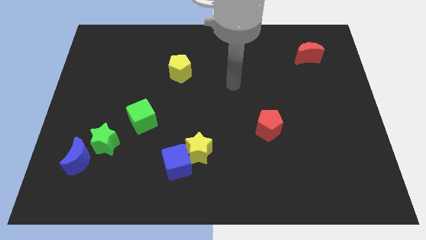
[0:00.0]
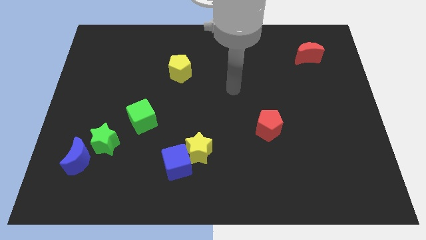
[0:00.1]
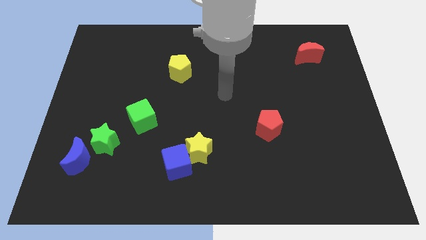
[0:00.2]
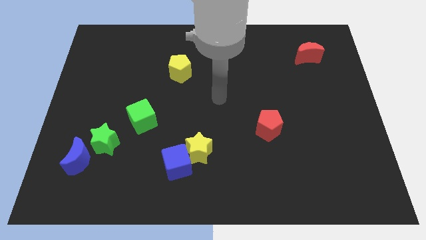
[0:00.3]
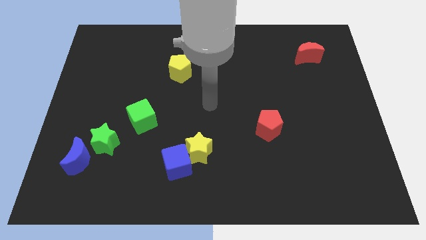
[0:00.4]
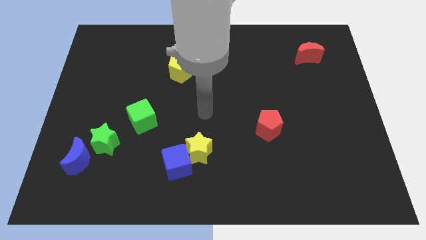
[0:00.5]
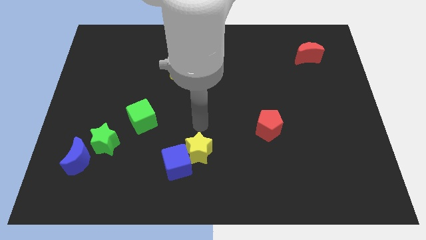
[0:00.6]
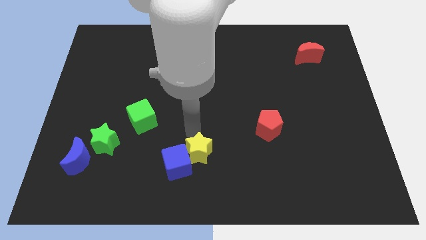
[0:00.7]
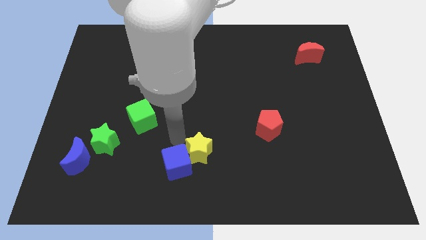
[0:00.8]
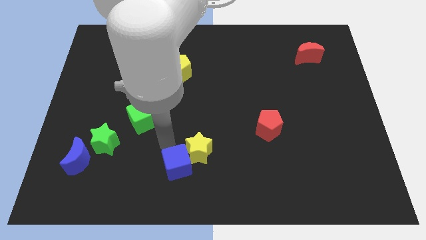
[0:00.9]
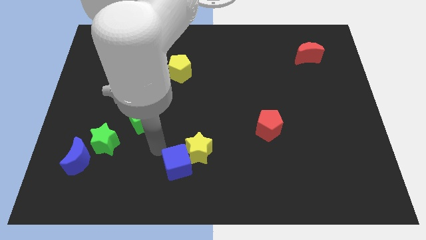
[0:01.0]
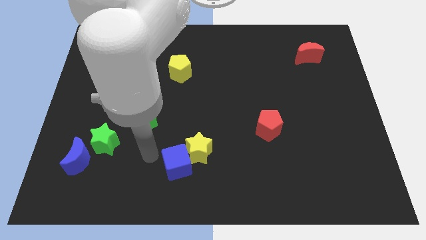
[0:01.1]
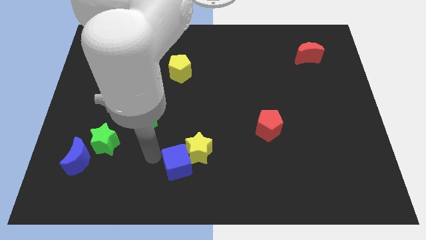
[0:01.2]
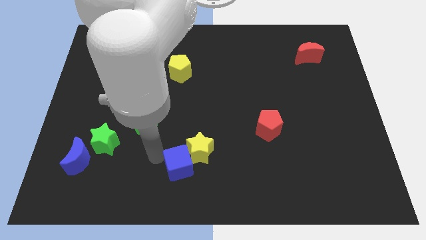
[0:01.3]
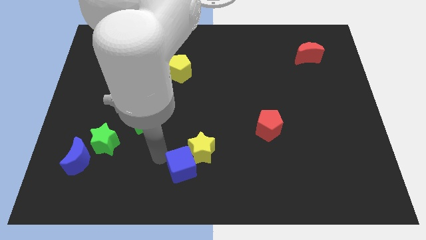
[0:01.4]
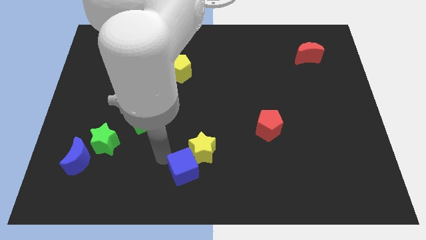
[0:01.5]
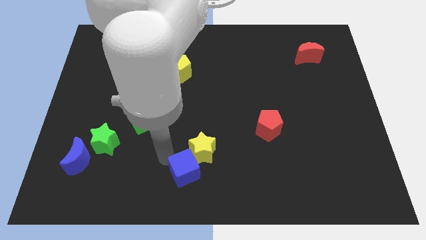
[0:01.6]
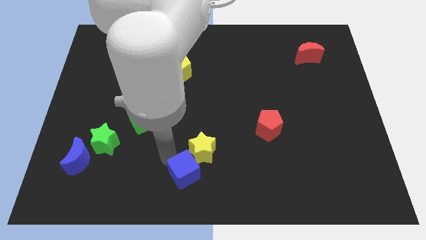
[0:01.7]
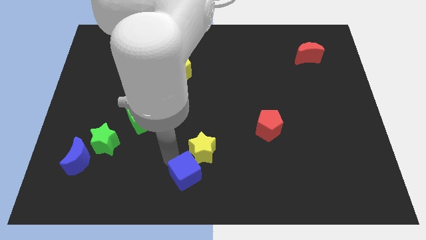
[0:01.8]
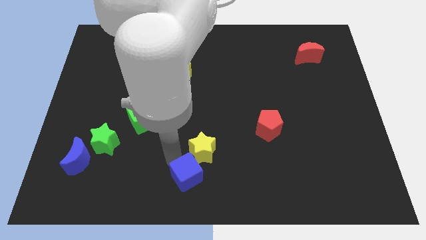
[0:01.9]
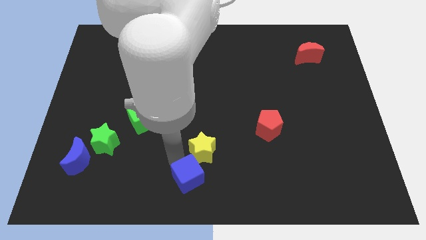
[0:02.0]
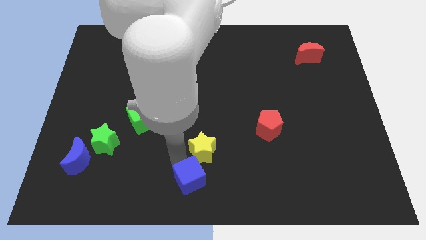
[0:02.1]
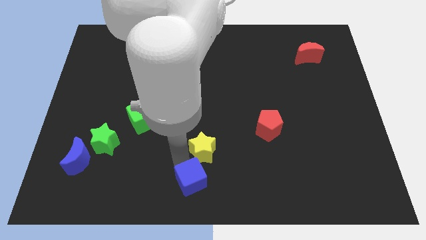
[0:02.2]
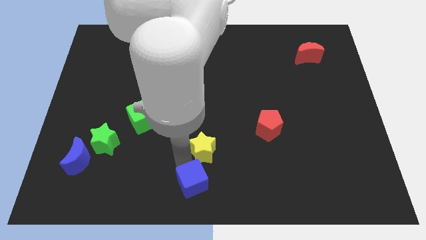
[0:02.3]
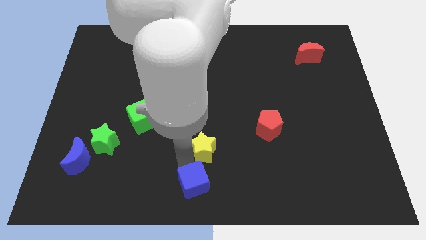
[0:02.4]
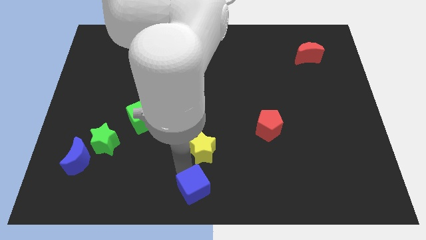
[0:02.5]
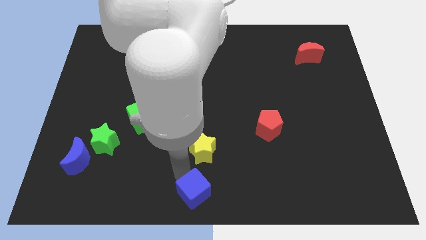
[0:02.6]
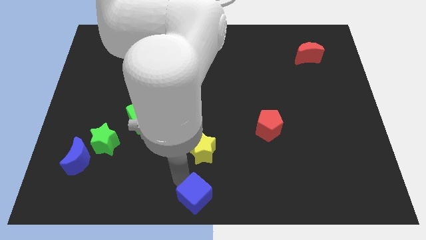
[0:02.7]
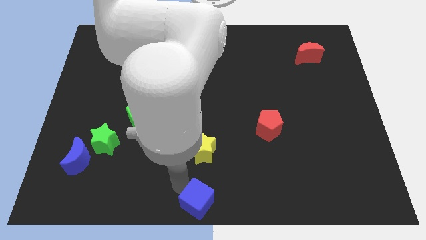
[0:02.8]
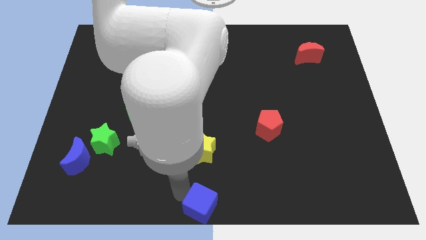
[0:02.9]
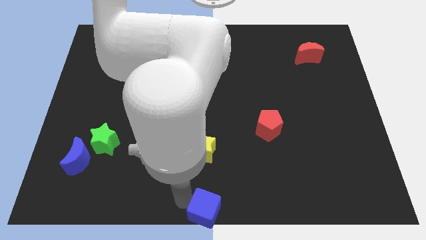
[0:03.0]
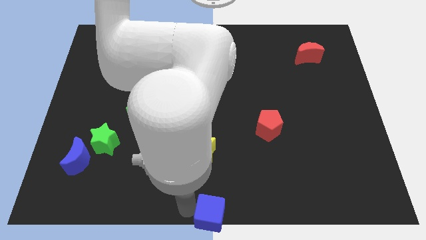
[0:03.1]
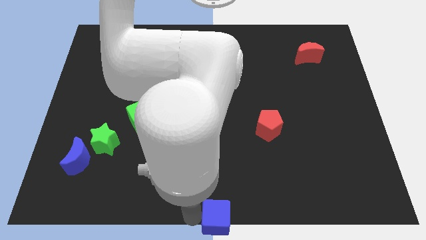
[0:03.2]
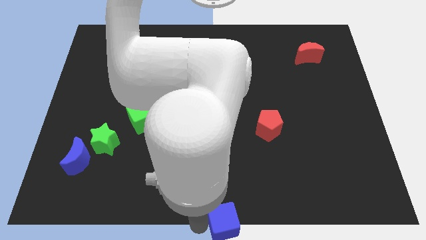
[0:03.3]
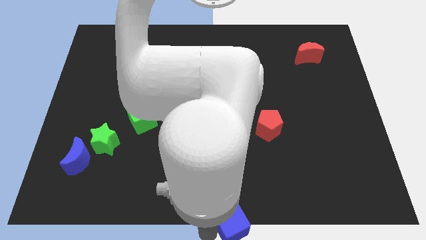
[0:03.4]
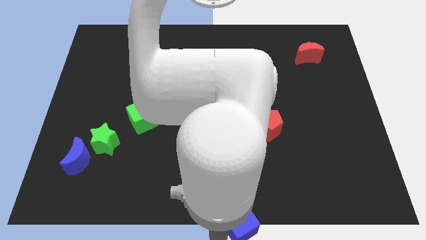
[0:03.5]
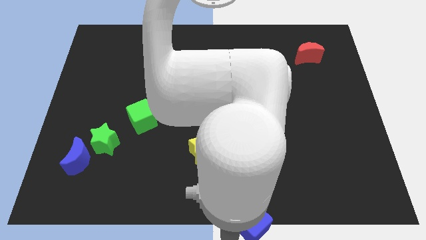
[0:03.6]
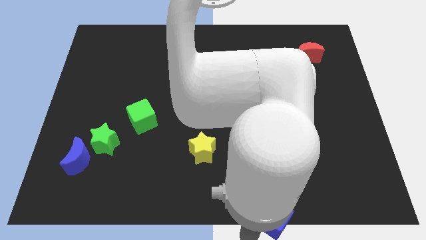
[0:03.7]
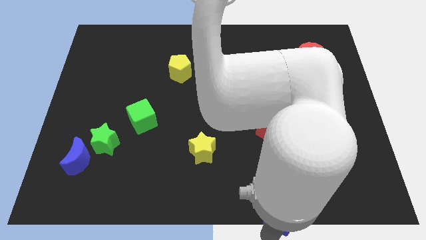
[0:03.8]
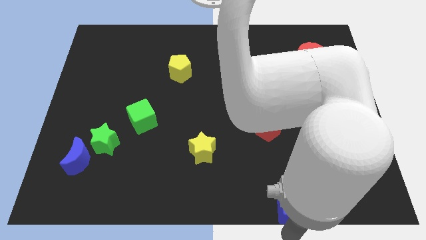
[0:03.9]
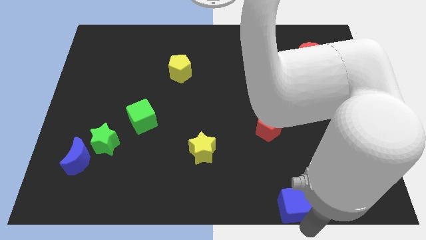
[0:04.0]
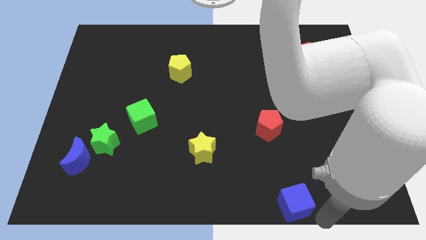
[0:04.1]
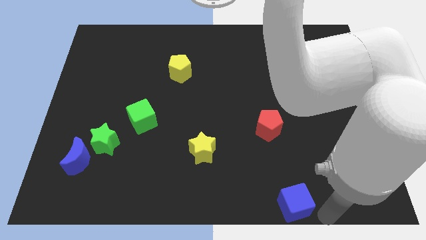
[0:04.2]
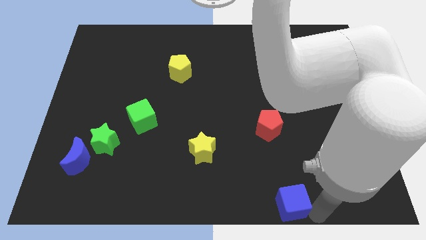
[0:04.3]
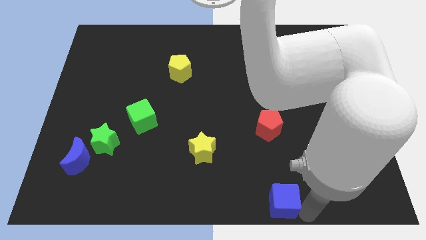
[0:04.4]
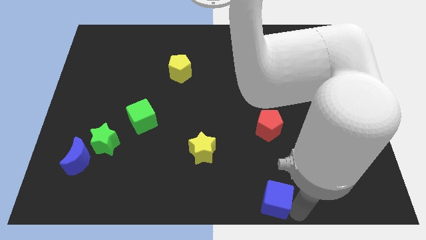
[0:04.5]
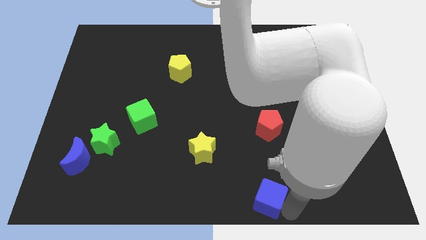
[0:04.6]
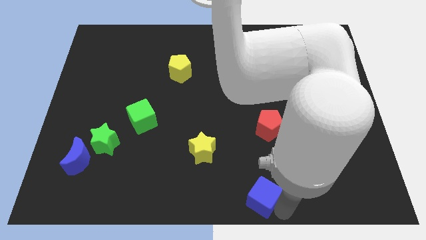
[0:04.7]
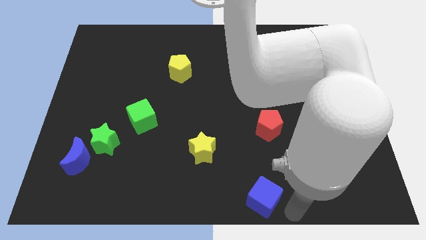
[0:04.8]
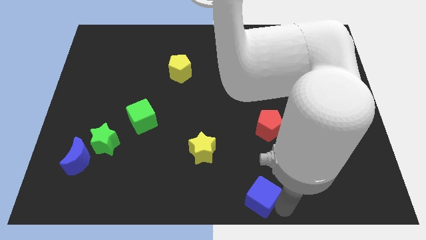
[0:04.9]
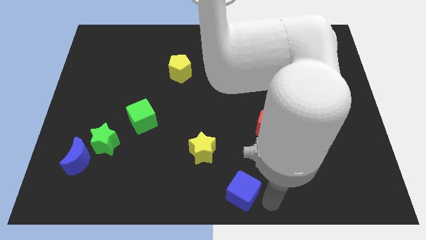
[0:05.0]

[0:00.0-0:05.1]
put the blue cube to the bottom right side of the yellow star

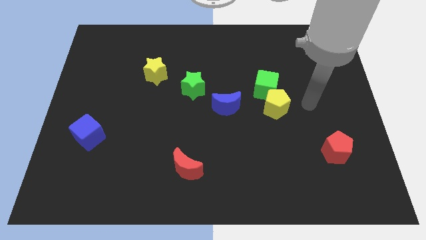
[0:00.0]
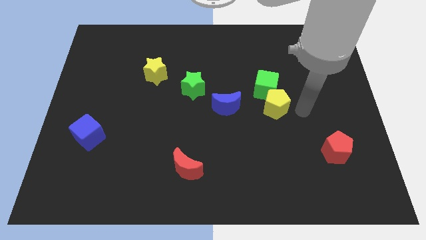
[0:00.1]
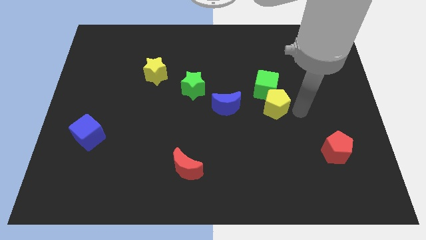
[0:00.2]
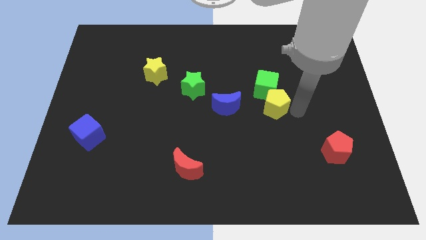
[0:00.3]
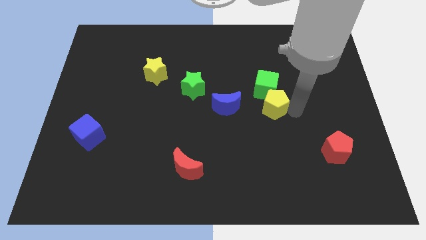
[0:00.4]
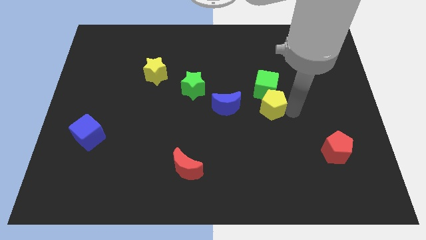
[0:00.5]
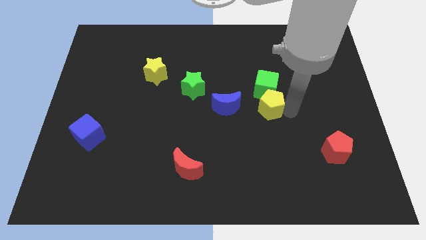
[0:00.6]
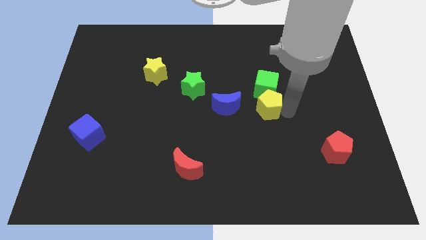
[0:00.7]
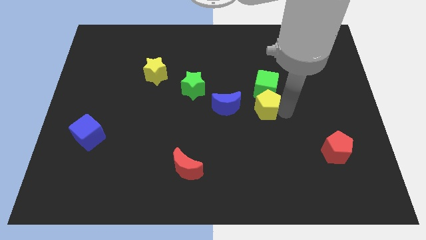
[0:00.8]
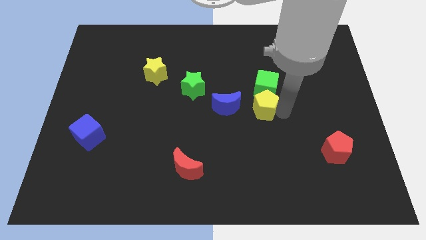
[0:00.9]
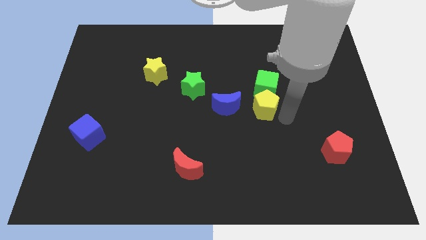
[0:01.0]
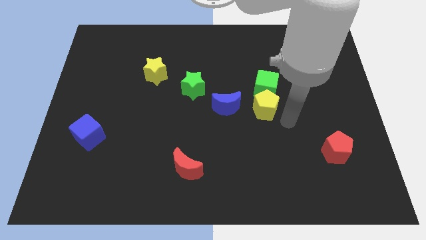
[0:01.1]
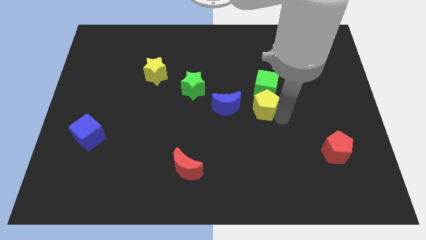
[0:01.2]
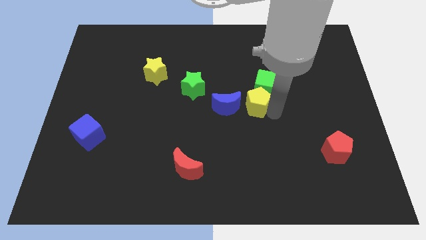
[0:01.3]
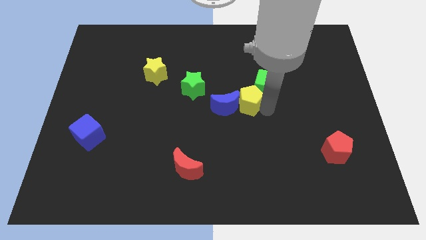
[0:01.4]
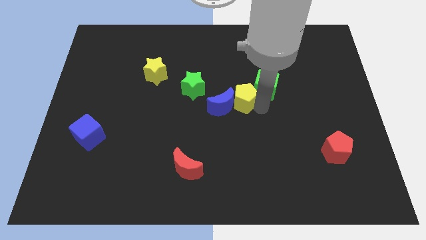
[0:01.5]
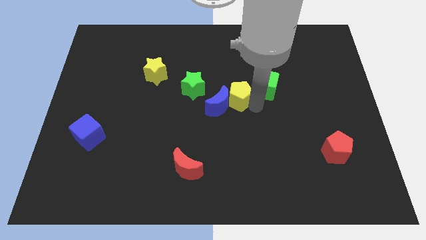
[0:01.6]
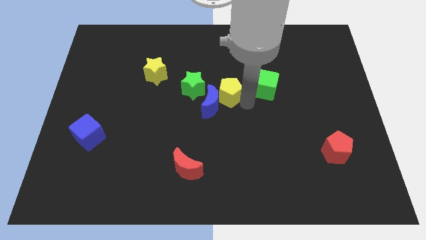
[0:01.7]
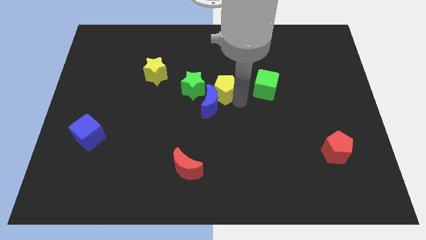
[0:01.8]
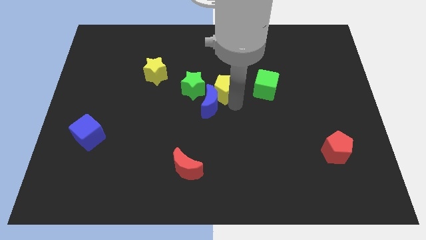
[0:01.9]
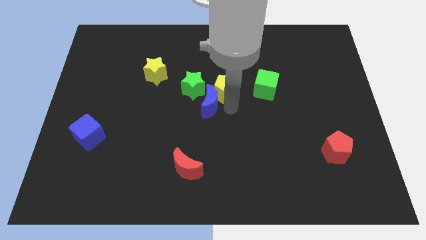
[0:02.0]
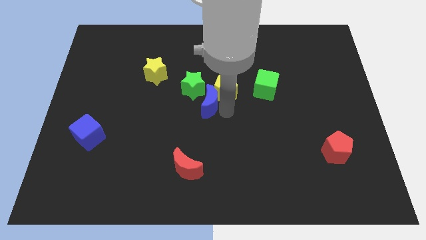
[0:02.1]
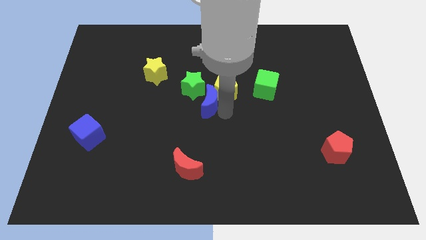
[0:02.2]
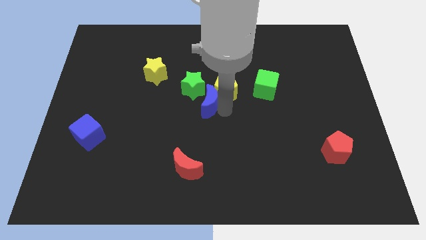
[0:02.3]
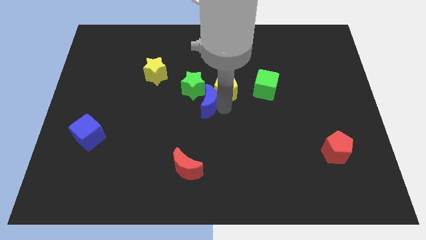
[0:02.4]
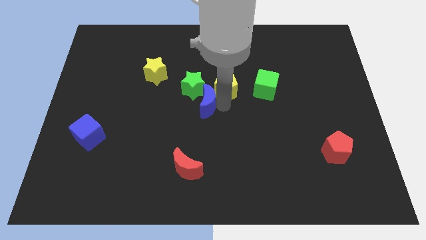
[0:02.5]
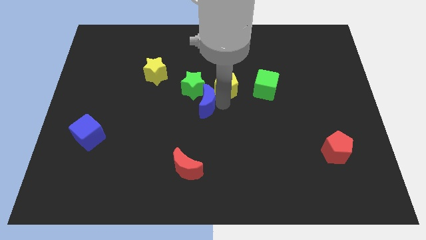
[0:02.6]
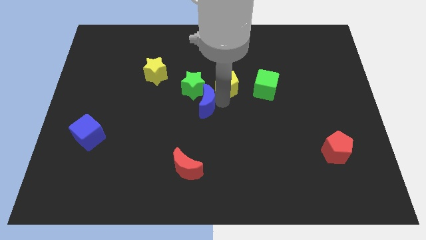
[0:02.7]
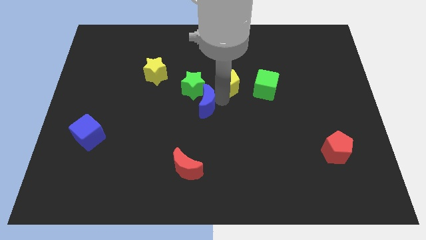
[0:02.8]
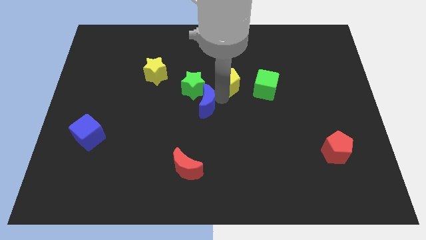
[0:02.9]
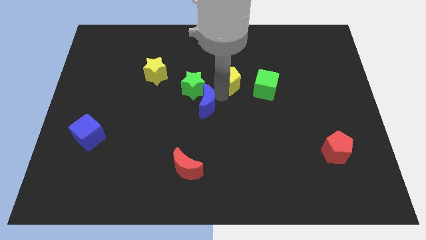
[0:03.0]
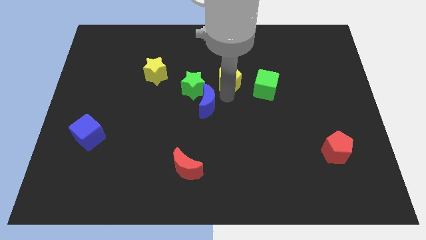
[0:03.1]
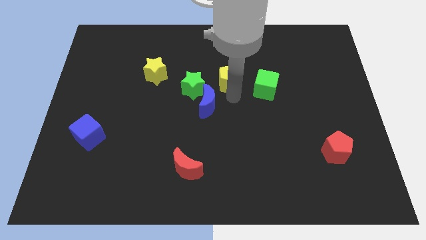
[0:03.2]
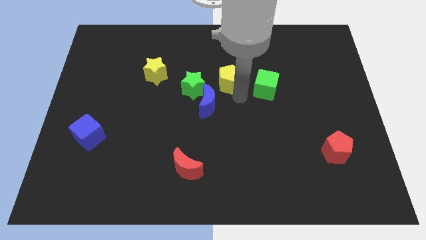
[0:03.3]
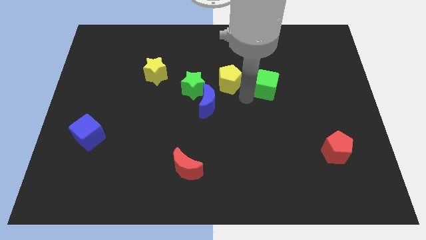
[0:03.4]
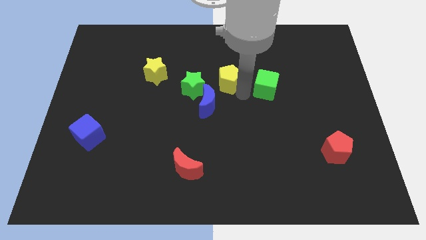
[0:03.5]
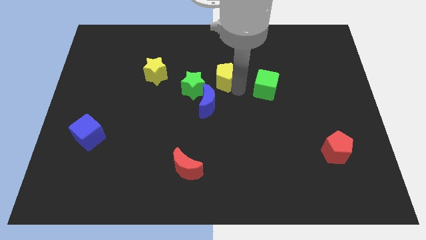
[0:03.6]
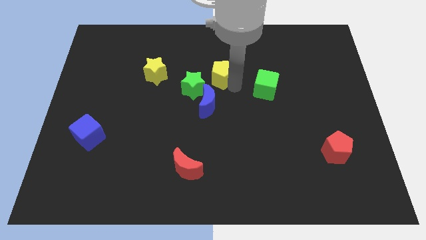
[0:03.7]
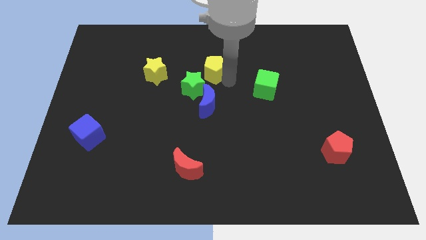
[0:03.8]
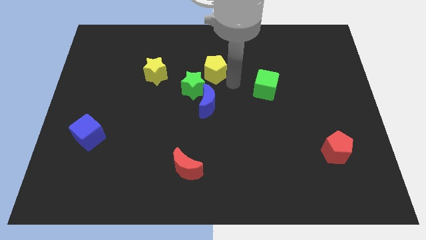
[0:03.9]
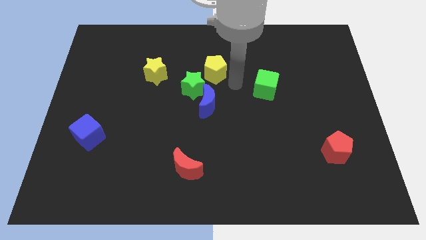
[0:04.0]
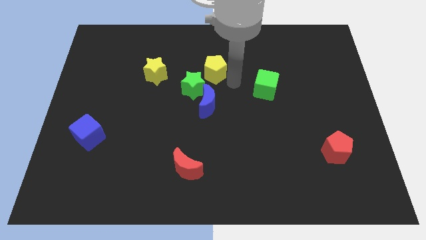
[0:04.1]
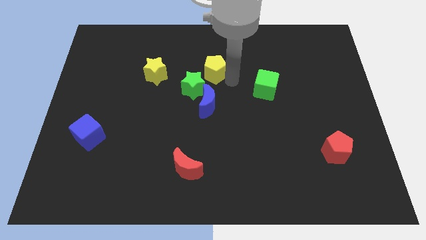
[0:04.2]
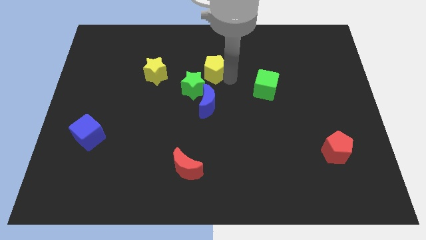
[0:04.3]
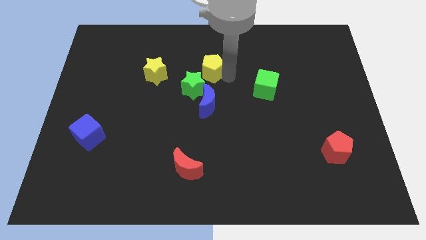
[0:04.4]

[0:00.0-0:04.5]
put the yellow pentagon above the green star
